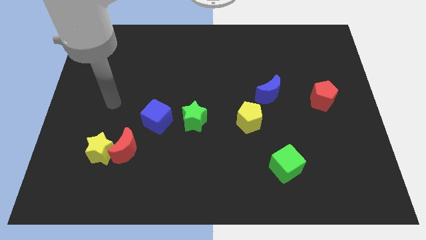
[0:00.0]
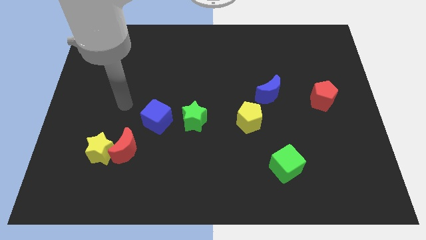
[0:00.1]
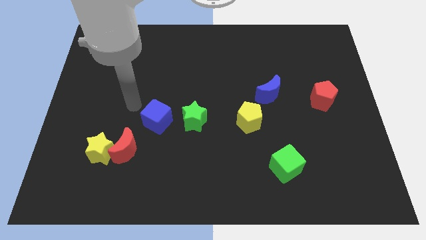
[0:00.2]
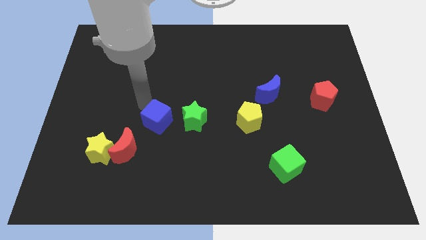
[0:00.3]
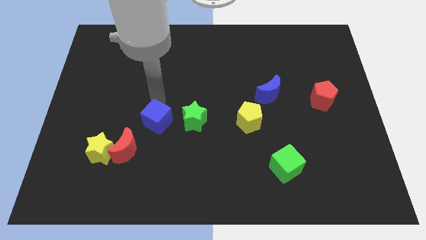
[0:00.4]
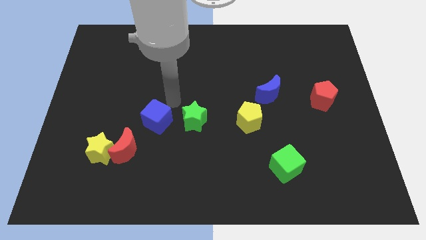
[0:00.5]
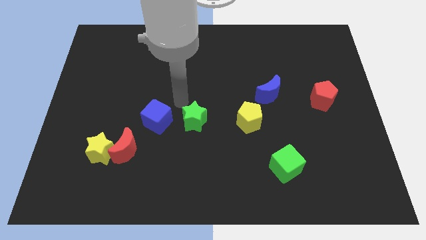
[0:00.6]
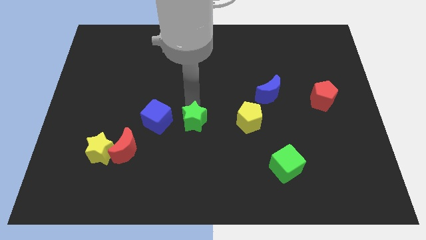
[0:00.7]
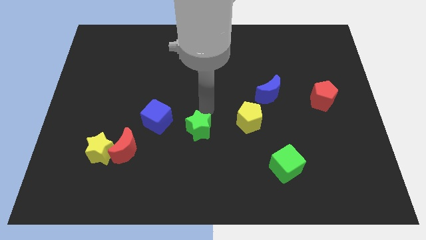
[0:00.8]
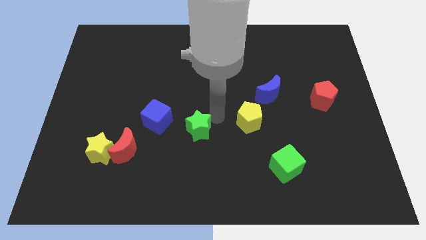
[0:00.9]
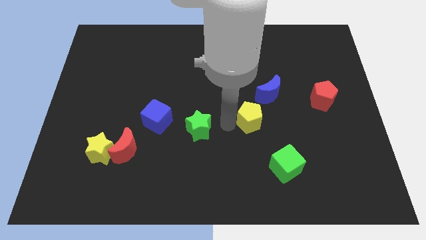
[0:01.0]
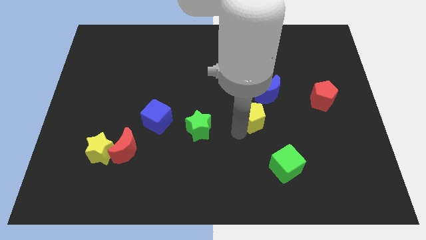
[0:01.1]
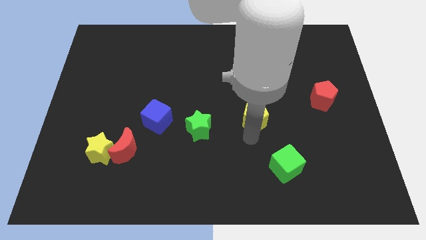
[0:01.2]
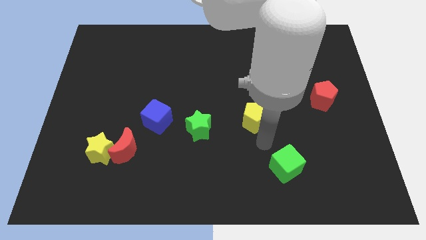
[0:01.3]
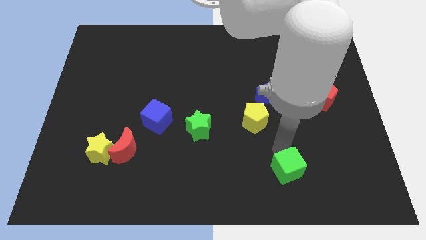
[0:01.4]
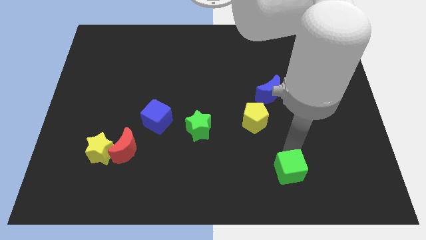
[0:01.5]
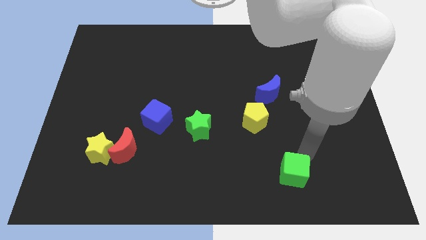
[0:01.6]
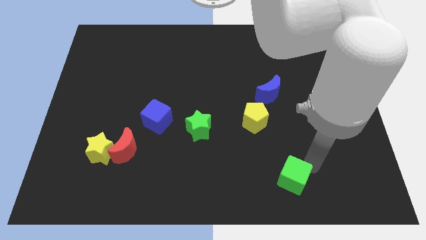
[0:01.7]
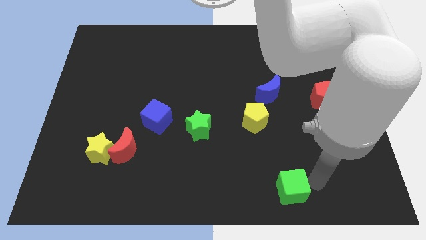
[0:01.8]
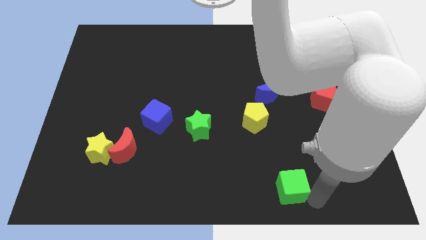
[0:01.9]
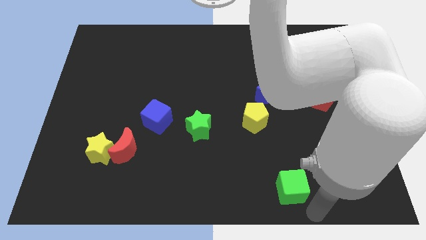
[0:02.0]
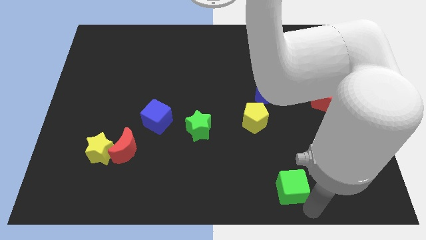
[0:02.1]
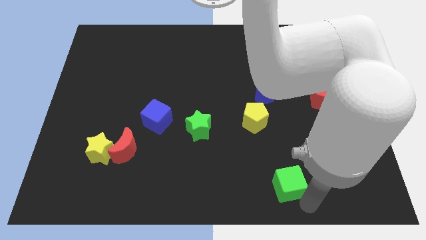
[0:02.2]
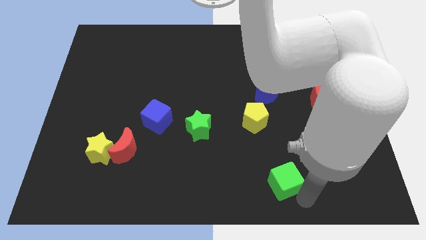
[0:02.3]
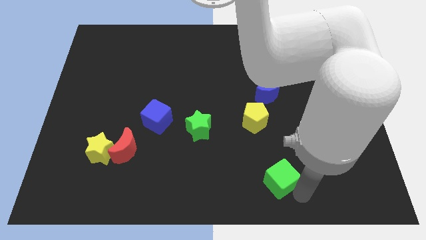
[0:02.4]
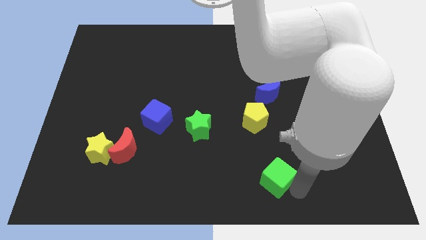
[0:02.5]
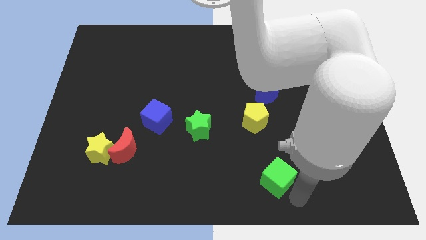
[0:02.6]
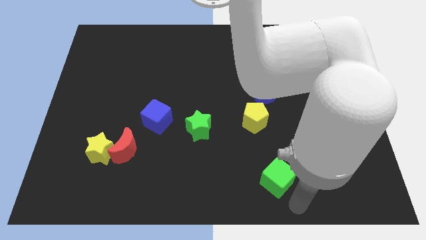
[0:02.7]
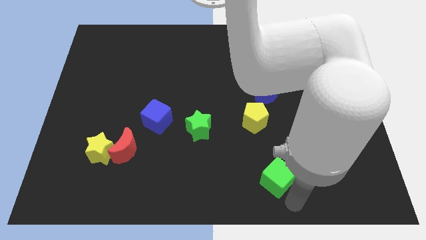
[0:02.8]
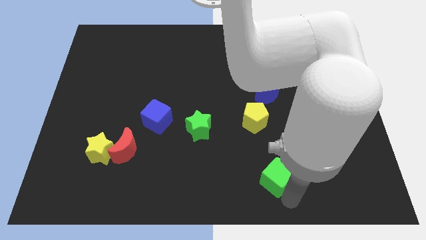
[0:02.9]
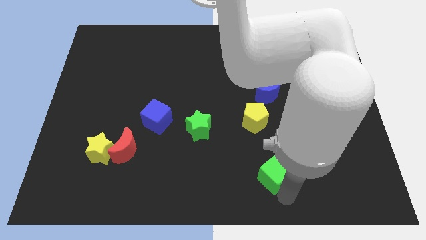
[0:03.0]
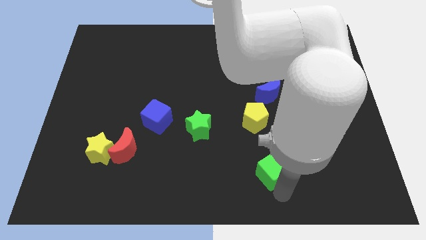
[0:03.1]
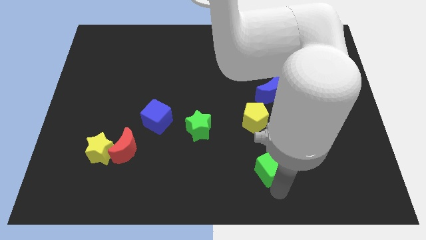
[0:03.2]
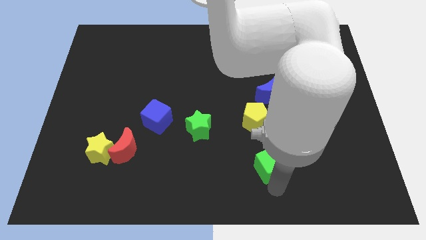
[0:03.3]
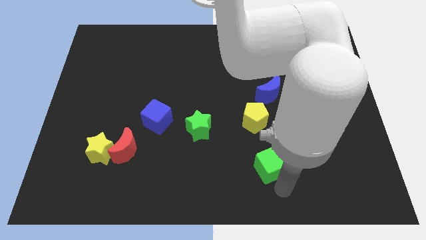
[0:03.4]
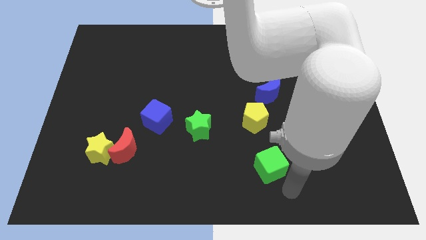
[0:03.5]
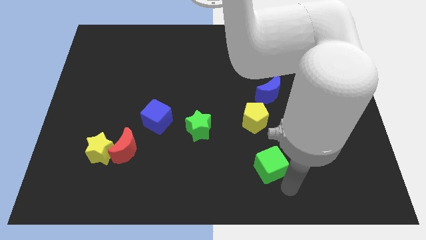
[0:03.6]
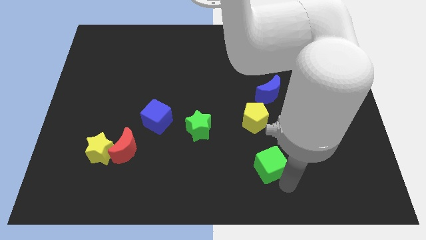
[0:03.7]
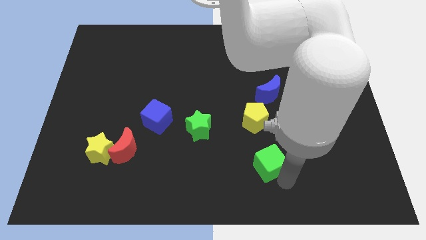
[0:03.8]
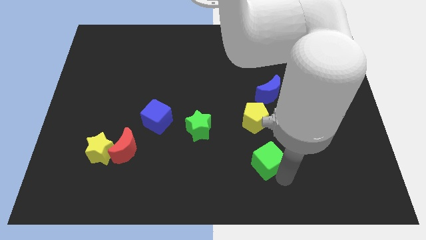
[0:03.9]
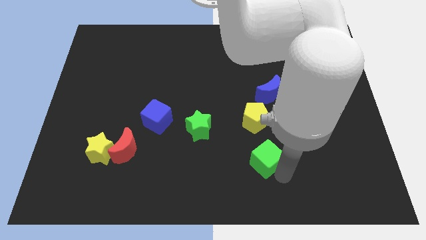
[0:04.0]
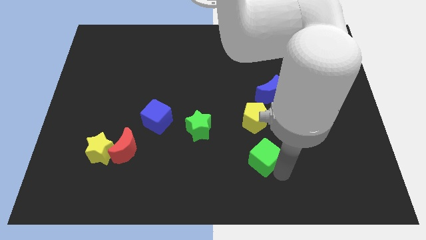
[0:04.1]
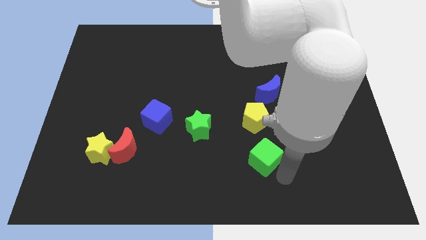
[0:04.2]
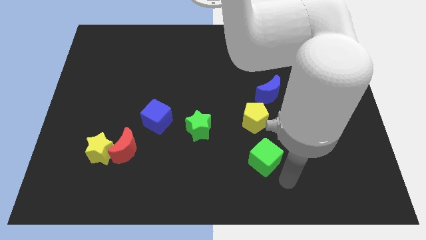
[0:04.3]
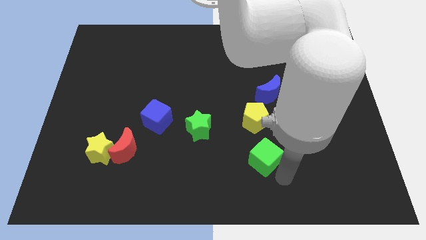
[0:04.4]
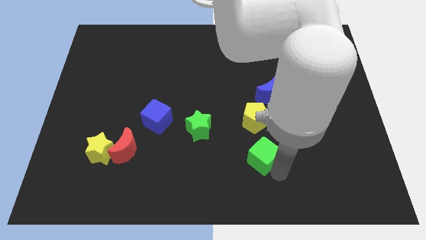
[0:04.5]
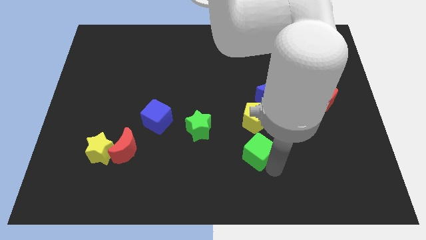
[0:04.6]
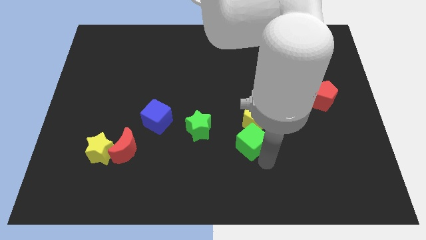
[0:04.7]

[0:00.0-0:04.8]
push the green cube a little upwards and then left

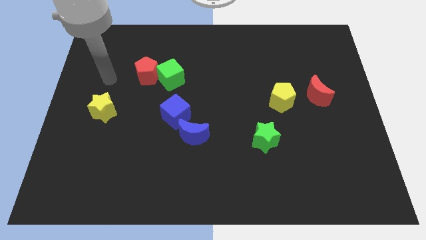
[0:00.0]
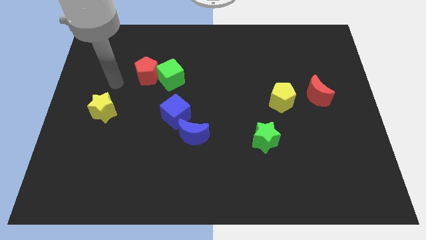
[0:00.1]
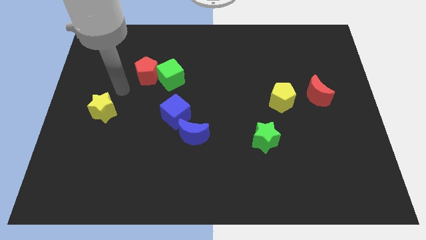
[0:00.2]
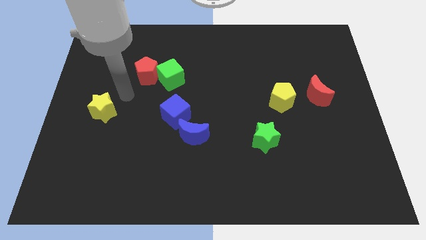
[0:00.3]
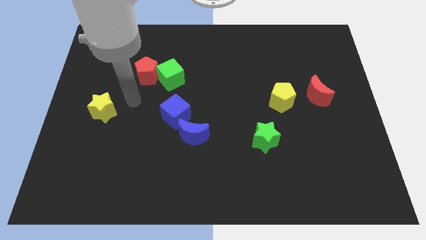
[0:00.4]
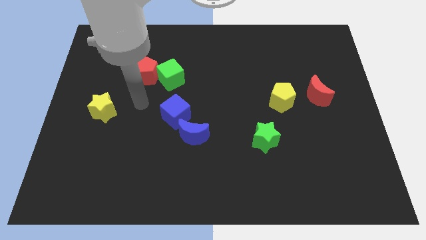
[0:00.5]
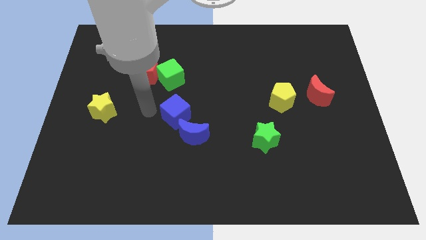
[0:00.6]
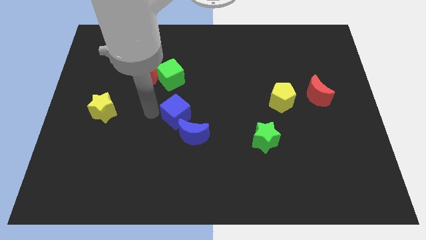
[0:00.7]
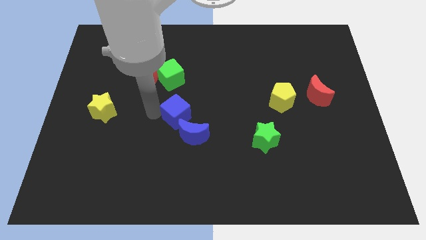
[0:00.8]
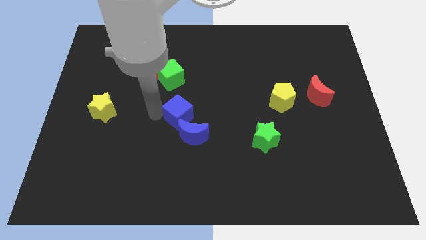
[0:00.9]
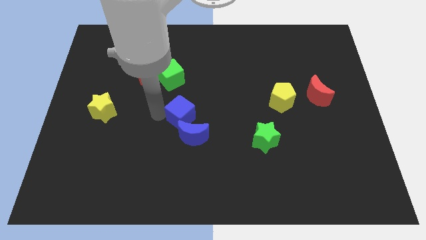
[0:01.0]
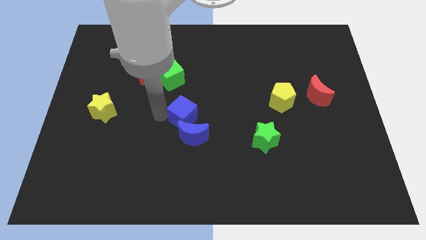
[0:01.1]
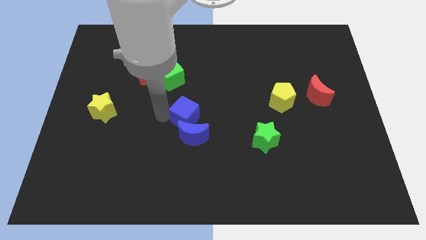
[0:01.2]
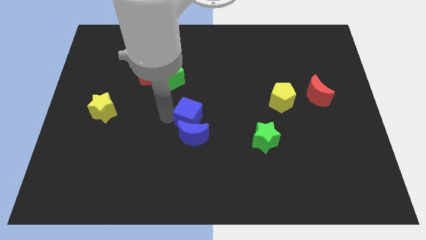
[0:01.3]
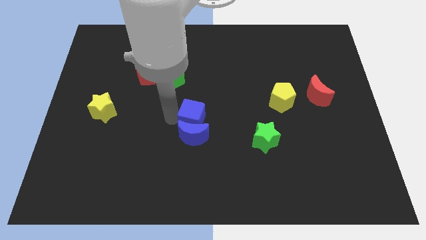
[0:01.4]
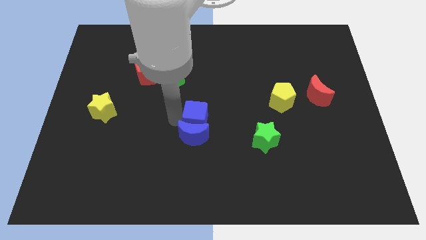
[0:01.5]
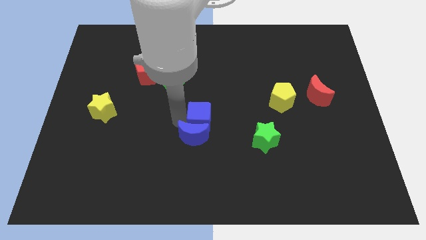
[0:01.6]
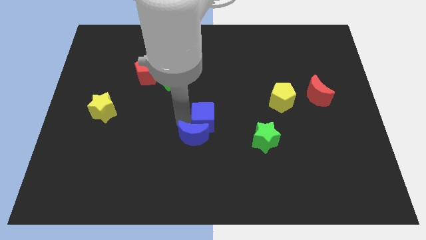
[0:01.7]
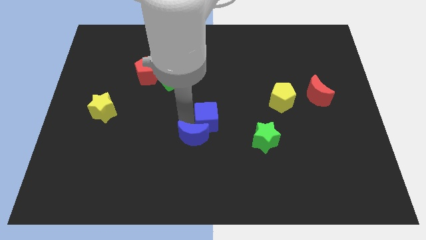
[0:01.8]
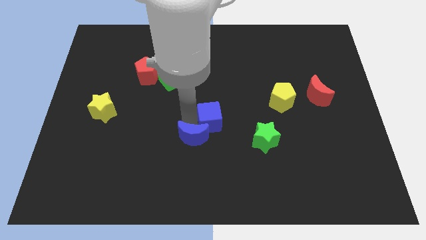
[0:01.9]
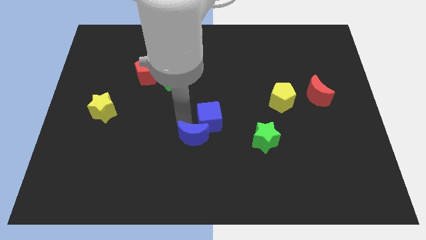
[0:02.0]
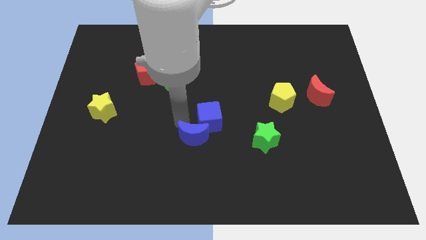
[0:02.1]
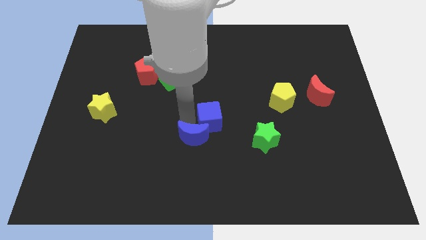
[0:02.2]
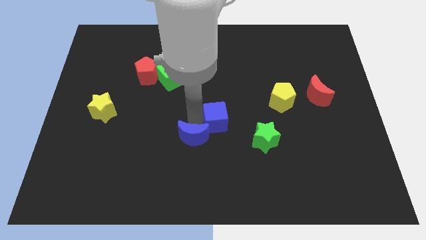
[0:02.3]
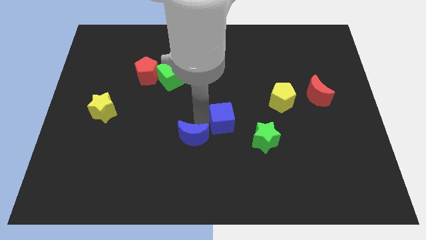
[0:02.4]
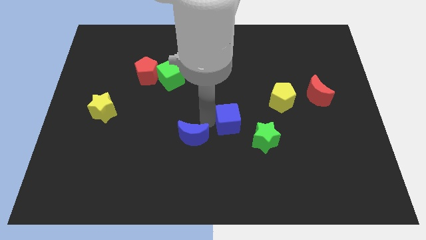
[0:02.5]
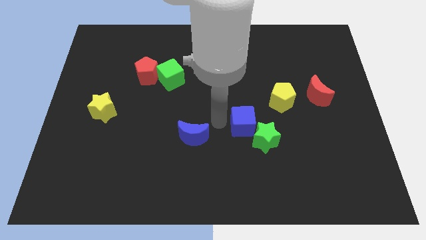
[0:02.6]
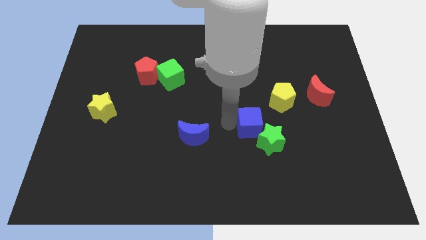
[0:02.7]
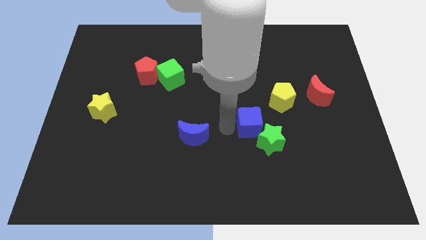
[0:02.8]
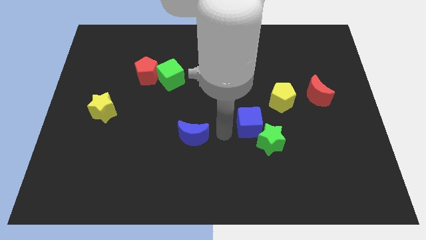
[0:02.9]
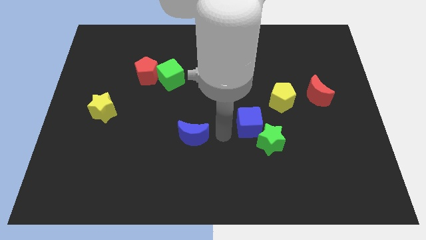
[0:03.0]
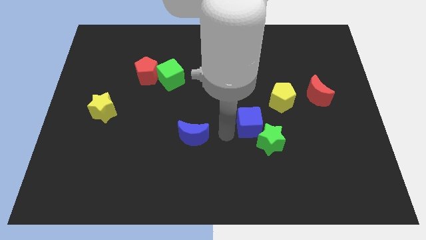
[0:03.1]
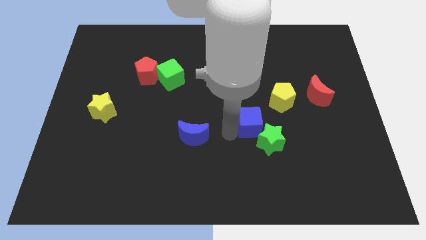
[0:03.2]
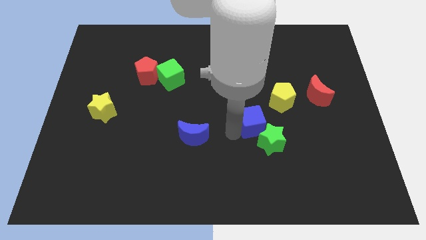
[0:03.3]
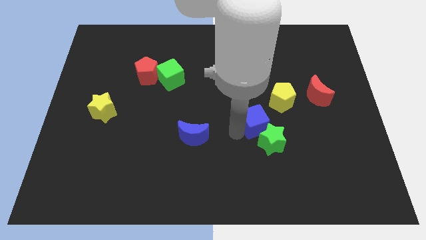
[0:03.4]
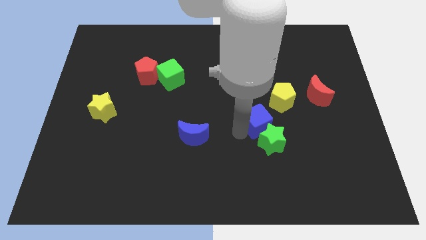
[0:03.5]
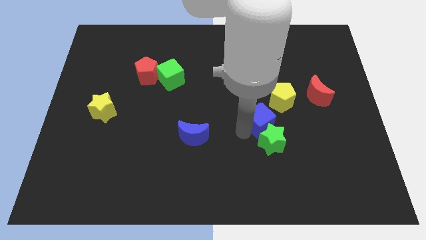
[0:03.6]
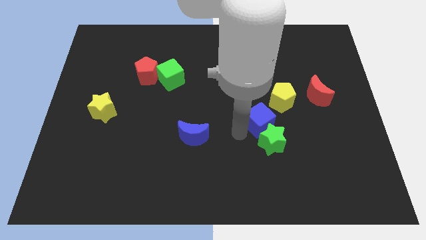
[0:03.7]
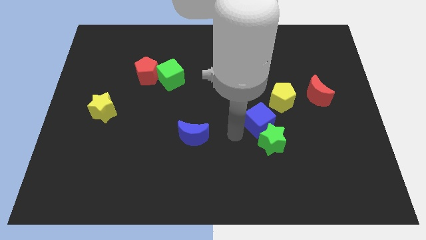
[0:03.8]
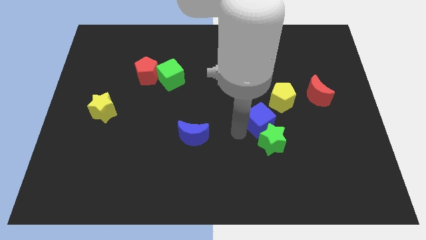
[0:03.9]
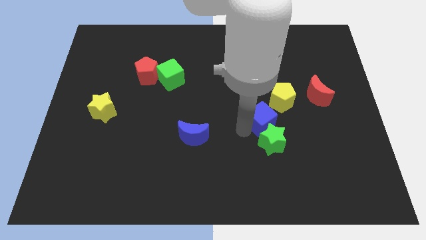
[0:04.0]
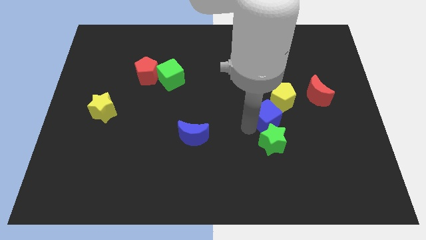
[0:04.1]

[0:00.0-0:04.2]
push the blue cube to the right
